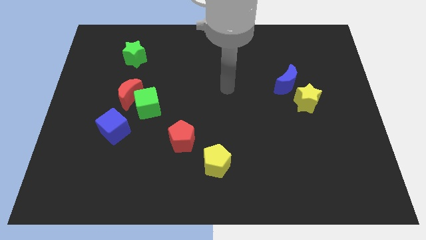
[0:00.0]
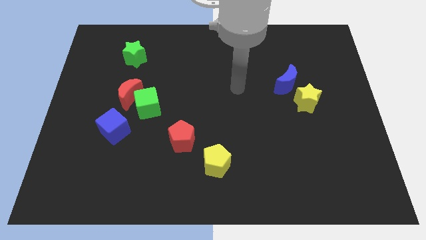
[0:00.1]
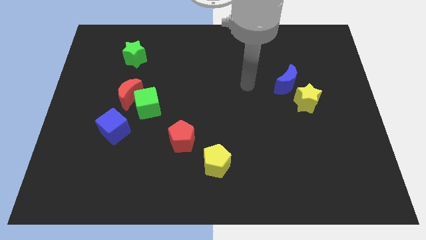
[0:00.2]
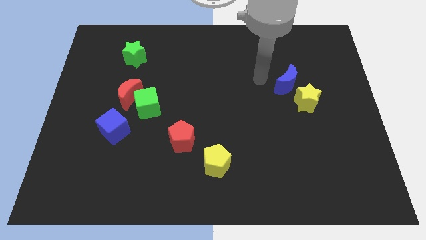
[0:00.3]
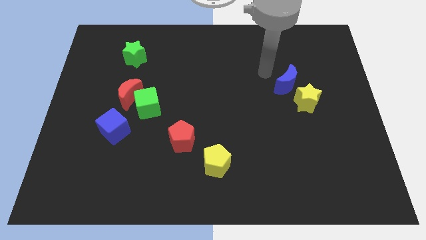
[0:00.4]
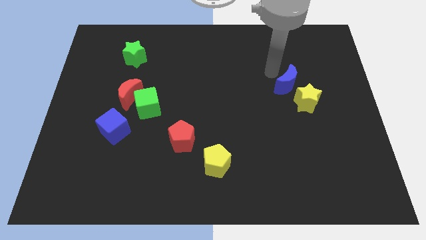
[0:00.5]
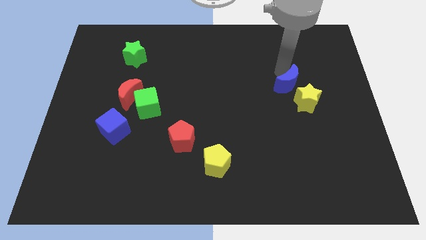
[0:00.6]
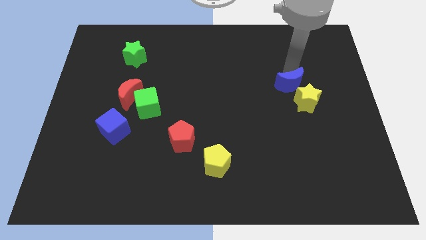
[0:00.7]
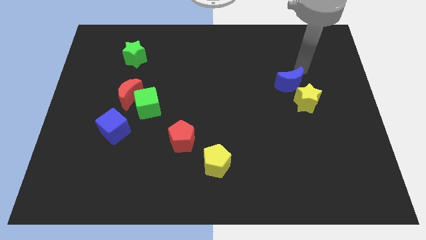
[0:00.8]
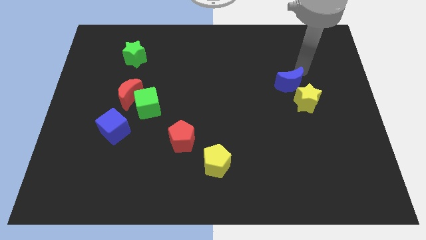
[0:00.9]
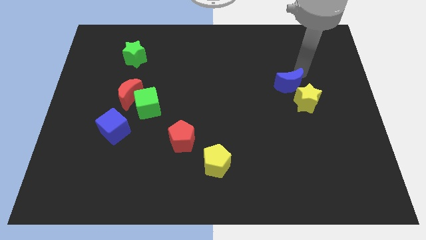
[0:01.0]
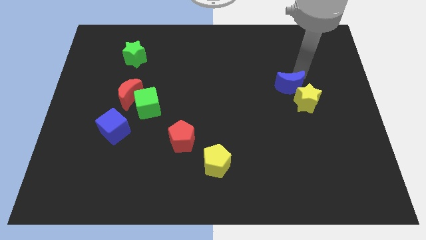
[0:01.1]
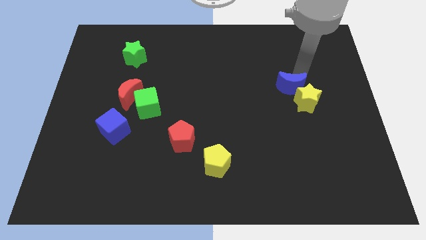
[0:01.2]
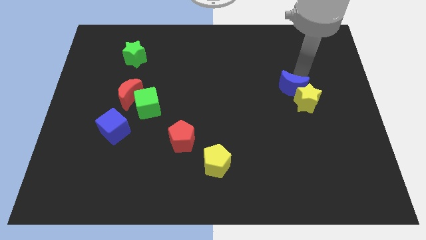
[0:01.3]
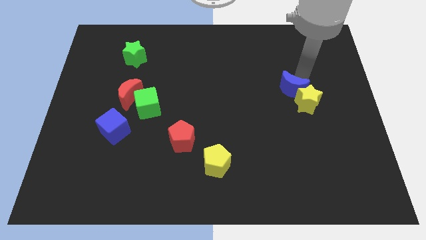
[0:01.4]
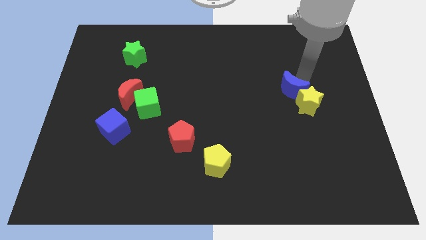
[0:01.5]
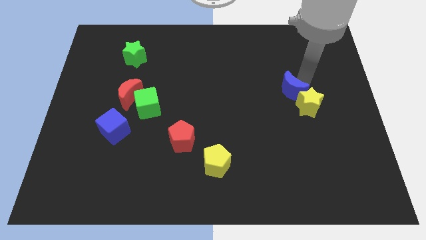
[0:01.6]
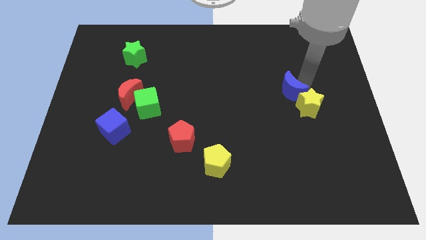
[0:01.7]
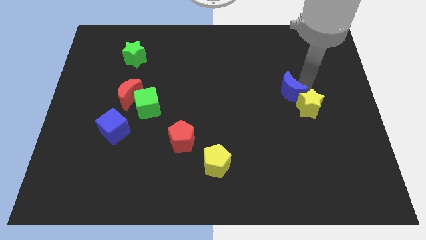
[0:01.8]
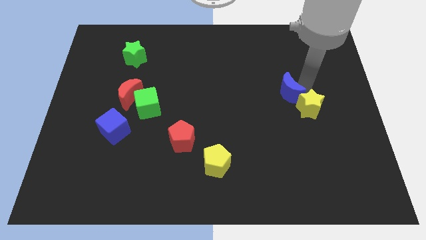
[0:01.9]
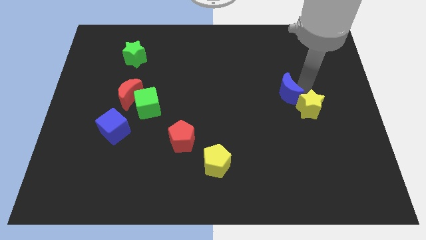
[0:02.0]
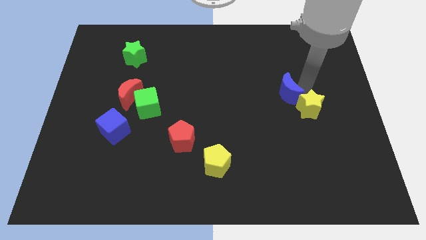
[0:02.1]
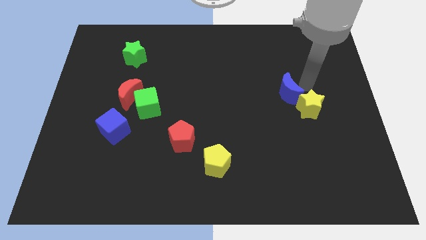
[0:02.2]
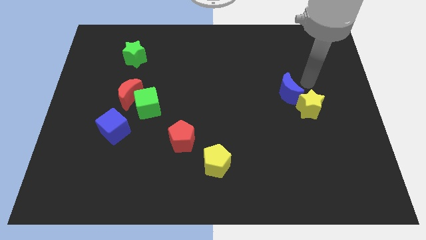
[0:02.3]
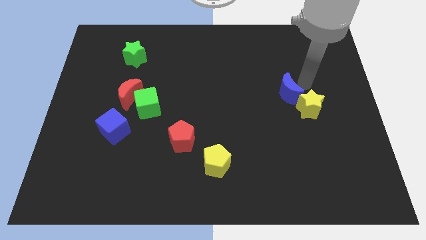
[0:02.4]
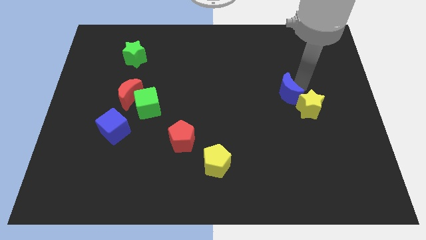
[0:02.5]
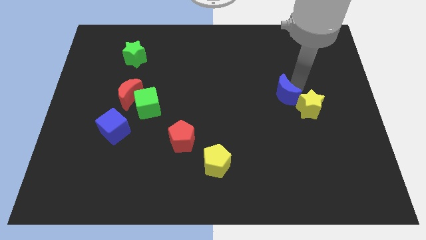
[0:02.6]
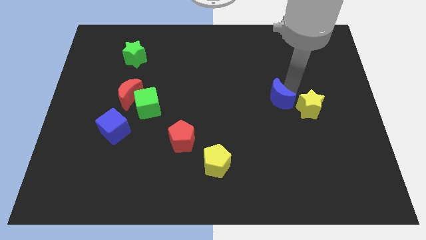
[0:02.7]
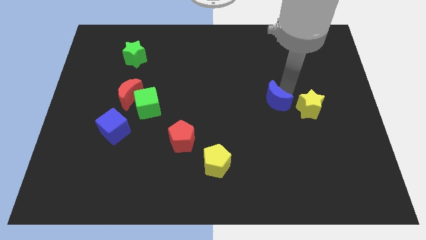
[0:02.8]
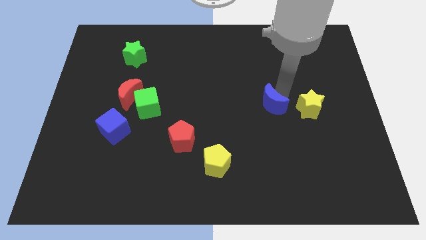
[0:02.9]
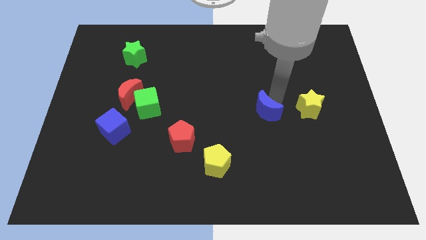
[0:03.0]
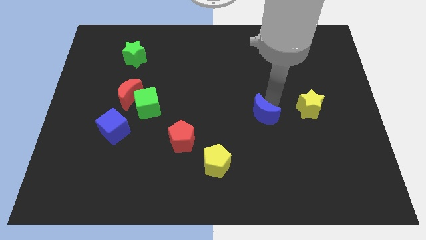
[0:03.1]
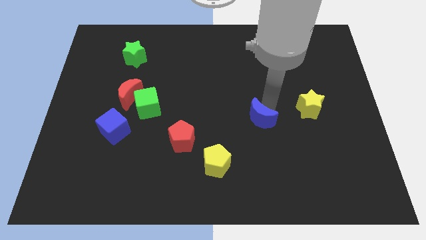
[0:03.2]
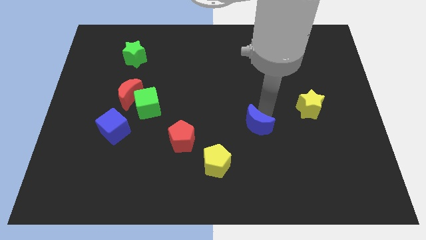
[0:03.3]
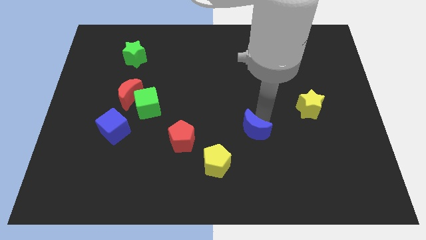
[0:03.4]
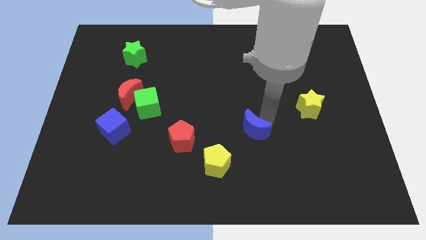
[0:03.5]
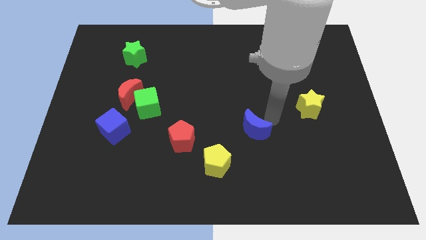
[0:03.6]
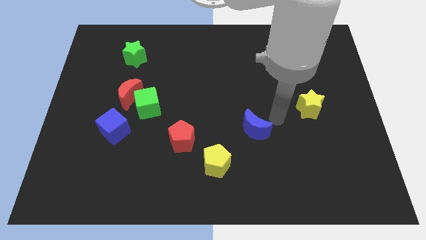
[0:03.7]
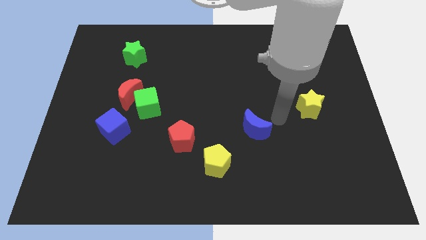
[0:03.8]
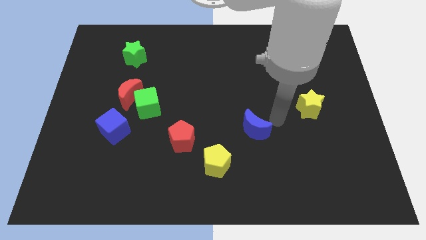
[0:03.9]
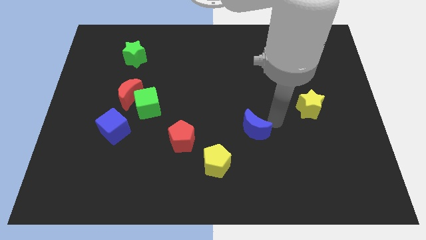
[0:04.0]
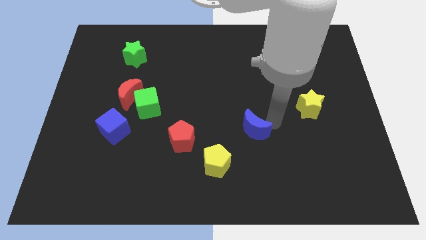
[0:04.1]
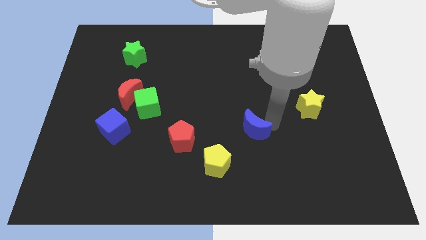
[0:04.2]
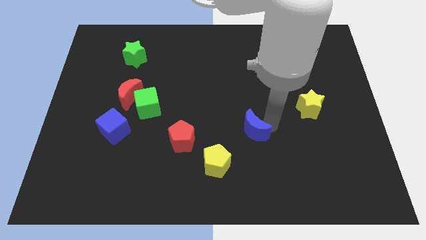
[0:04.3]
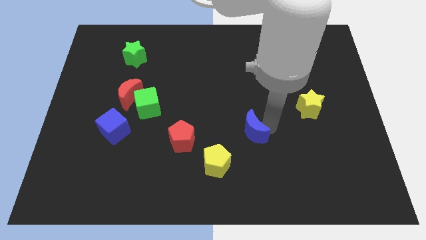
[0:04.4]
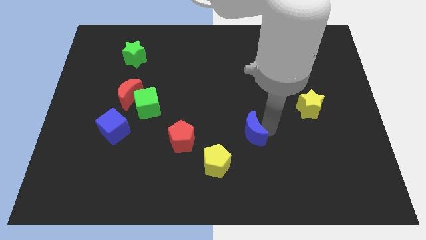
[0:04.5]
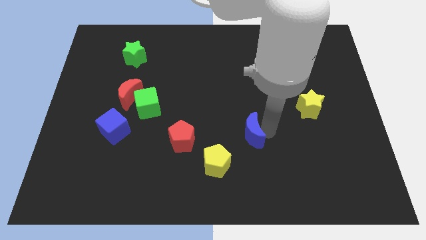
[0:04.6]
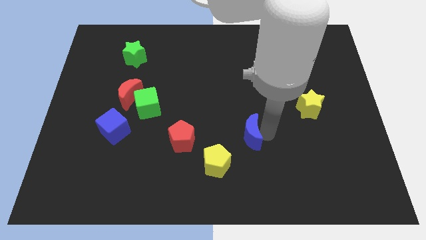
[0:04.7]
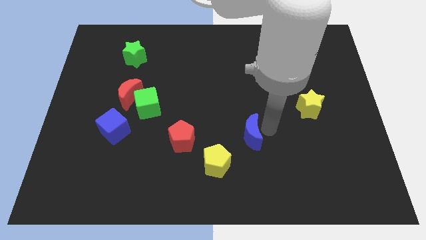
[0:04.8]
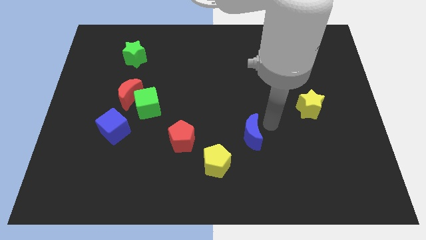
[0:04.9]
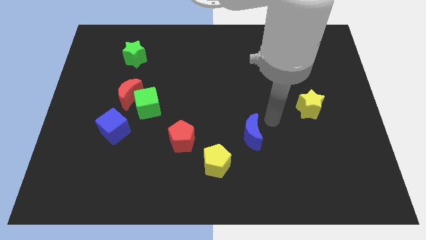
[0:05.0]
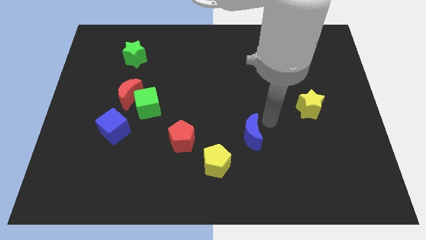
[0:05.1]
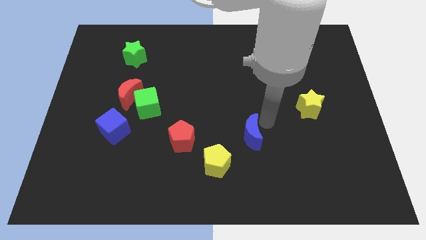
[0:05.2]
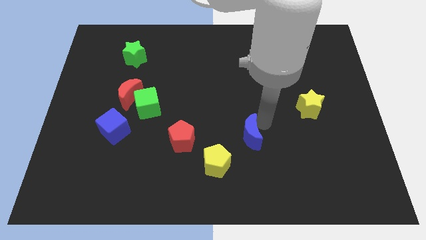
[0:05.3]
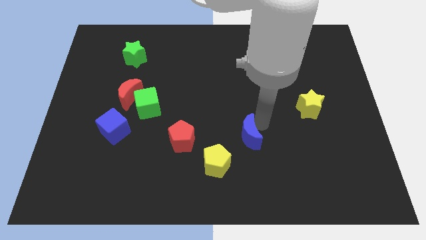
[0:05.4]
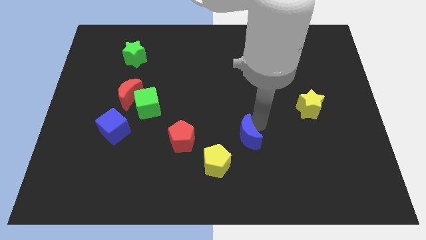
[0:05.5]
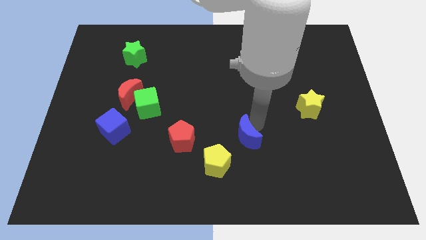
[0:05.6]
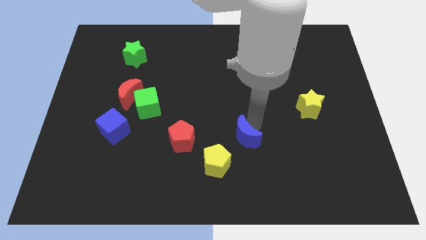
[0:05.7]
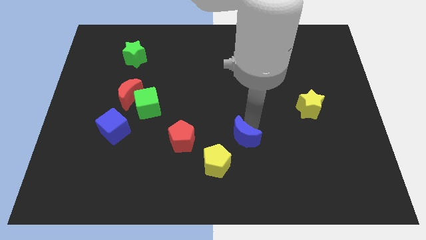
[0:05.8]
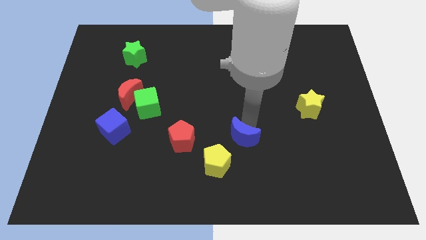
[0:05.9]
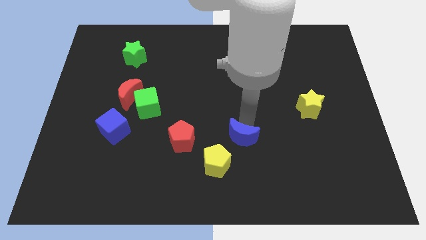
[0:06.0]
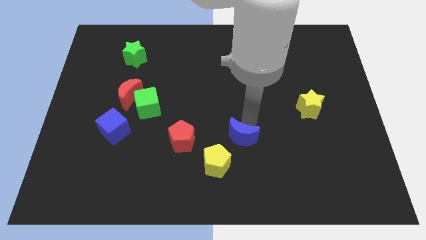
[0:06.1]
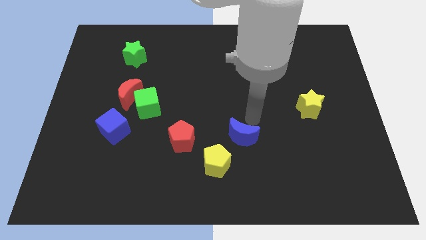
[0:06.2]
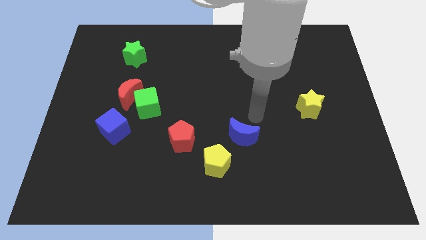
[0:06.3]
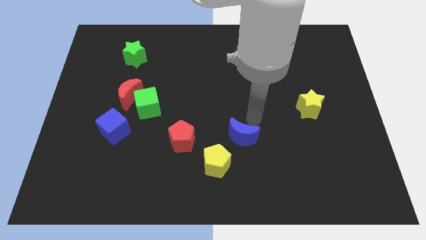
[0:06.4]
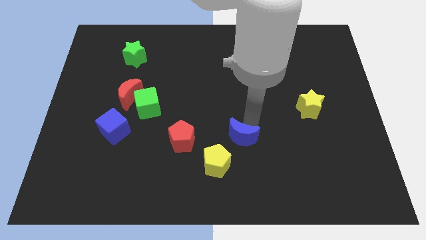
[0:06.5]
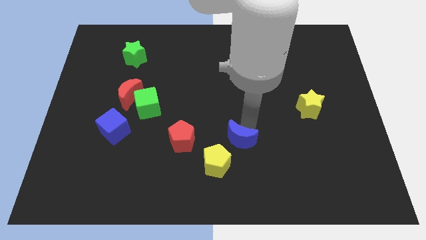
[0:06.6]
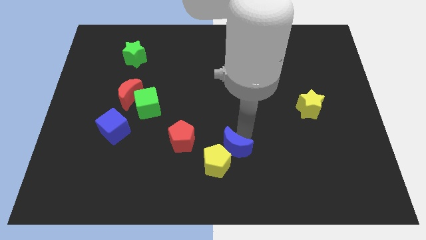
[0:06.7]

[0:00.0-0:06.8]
push the blue moon to the yellow pentagon

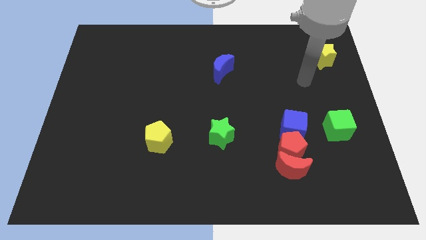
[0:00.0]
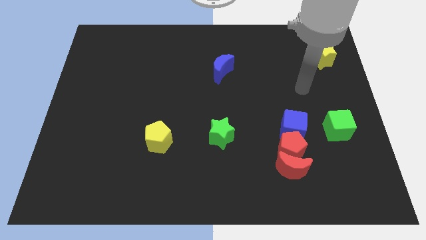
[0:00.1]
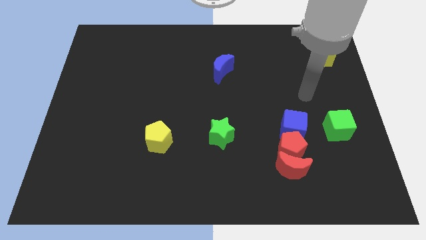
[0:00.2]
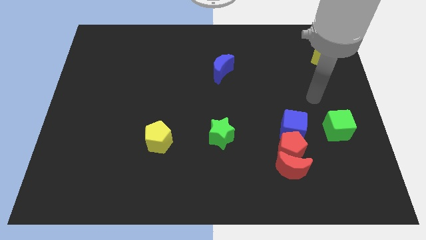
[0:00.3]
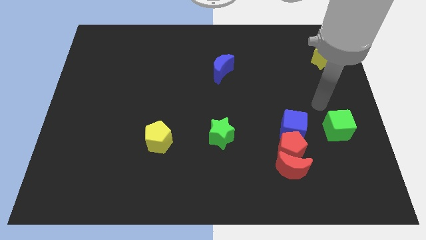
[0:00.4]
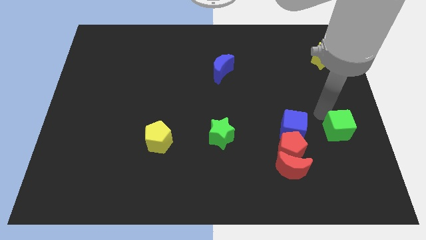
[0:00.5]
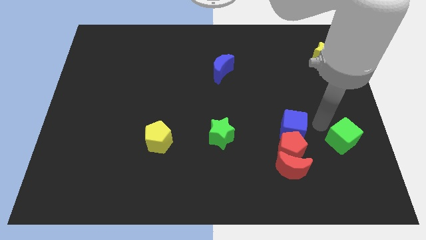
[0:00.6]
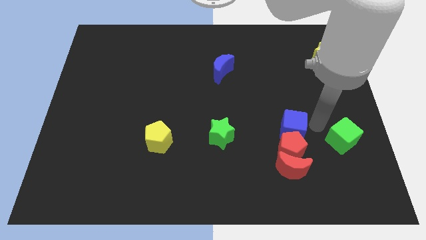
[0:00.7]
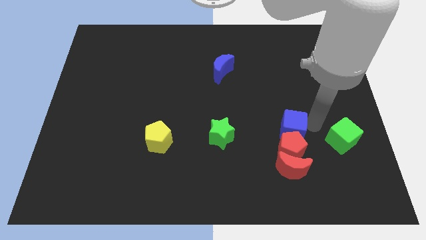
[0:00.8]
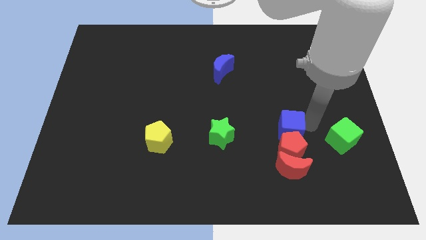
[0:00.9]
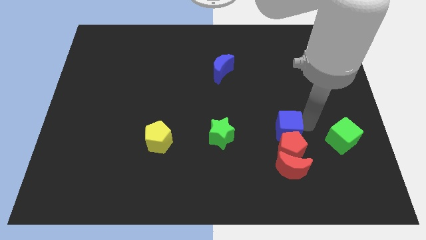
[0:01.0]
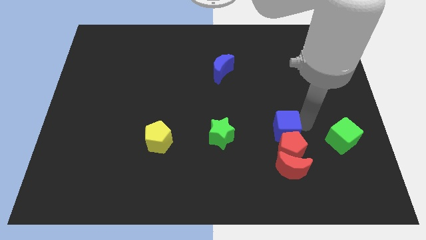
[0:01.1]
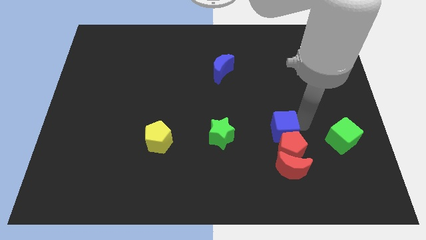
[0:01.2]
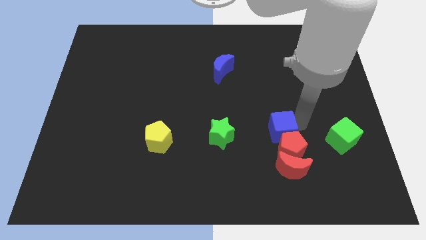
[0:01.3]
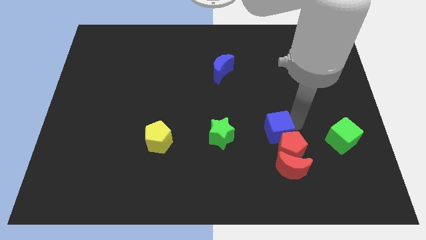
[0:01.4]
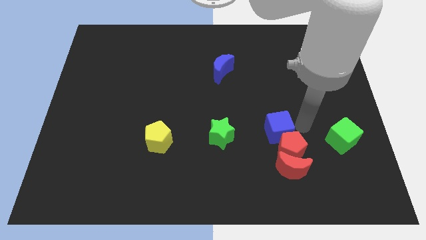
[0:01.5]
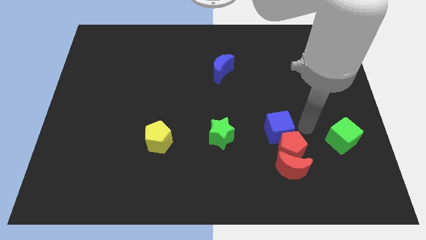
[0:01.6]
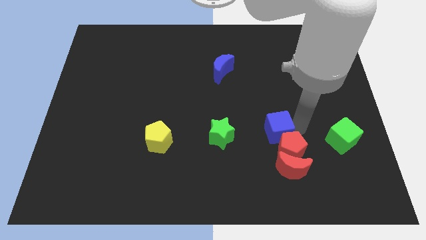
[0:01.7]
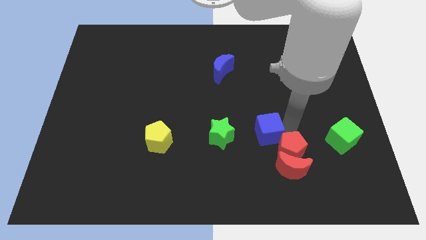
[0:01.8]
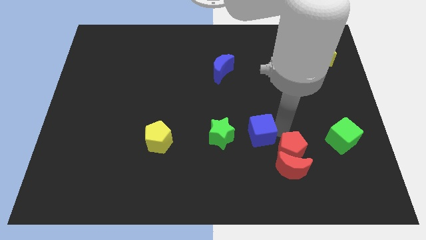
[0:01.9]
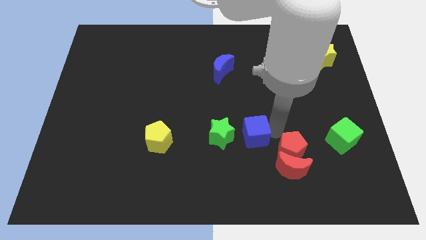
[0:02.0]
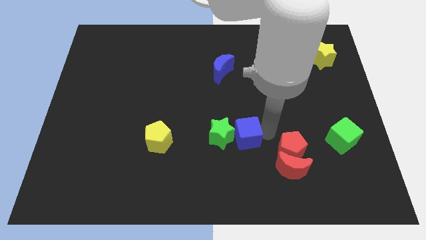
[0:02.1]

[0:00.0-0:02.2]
put the blue cube to the green star
